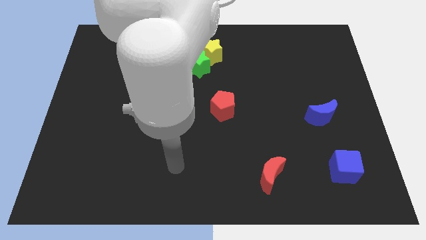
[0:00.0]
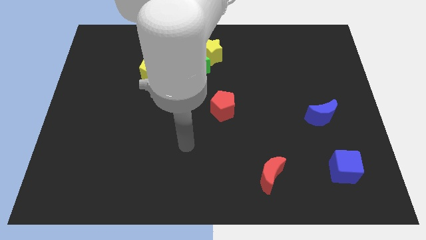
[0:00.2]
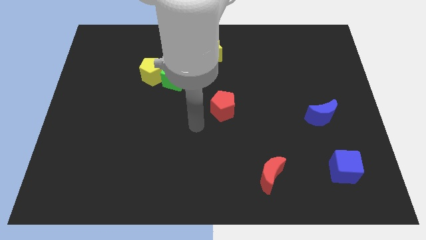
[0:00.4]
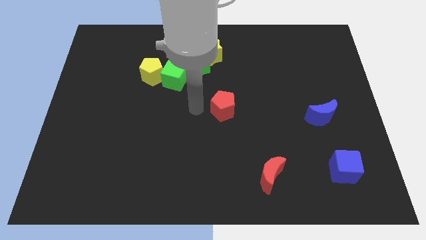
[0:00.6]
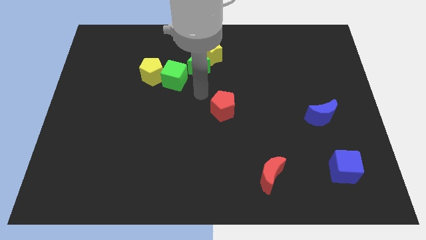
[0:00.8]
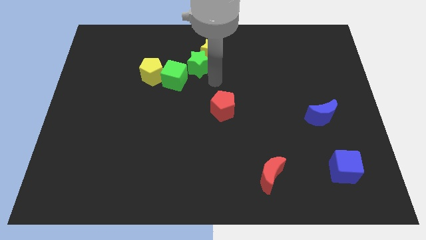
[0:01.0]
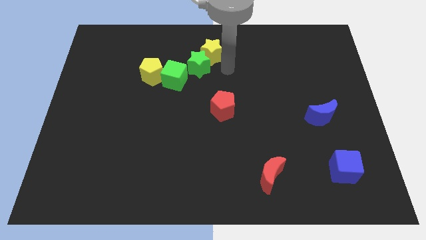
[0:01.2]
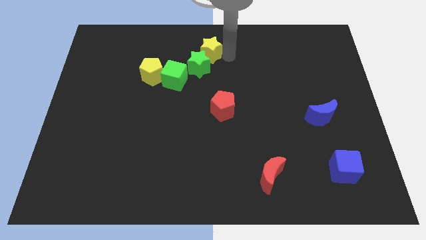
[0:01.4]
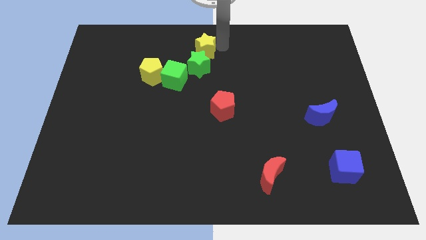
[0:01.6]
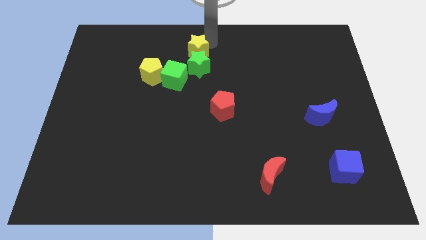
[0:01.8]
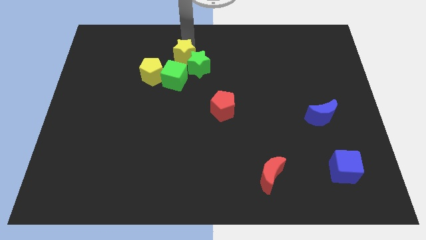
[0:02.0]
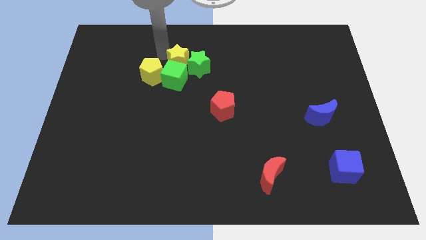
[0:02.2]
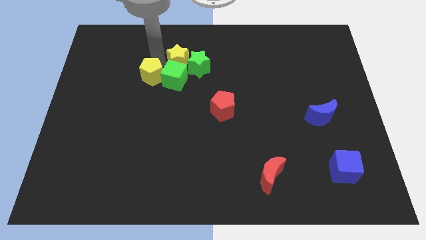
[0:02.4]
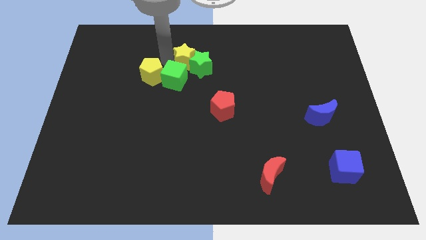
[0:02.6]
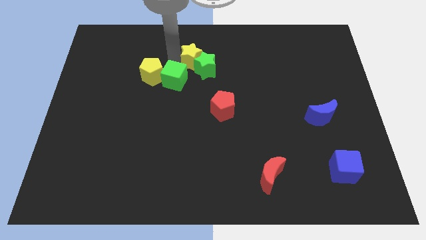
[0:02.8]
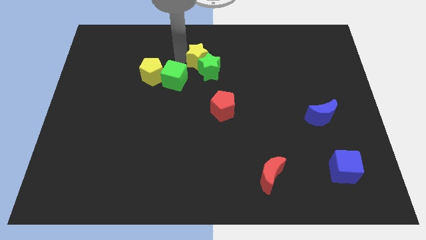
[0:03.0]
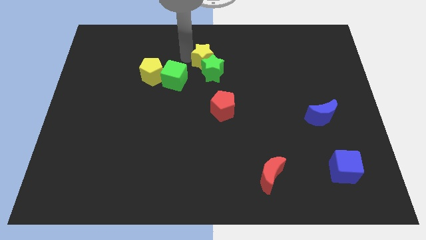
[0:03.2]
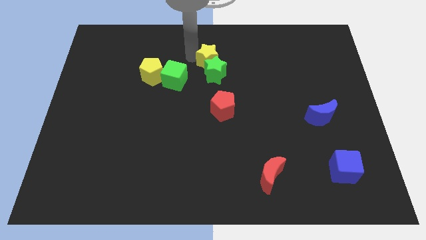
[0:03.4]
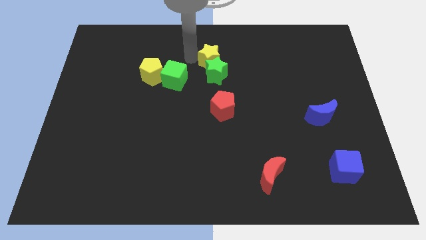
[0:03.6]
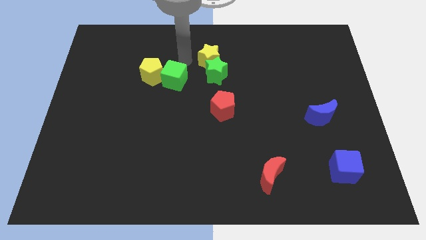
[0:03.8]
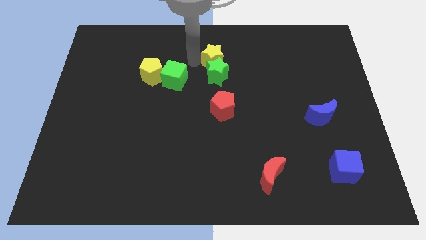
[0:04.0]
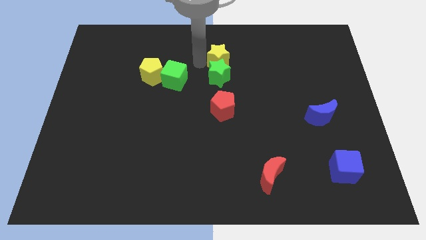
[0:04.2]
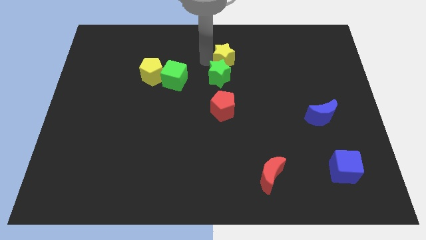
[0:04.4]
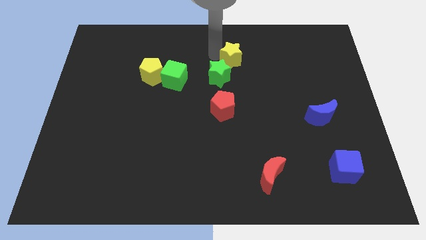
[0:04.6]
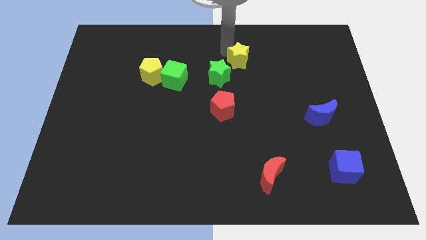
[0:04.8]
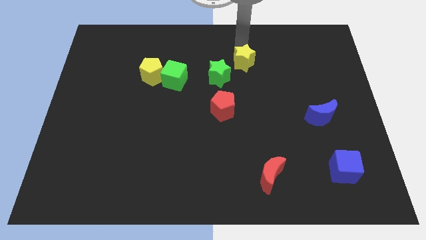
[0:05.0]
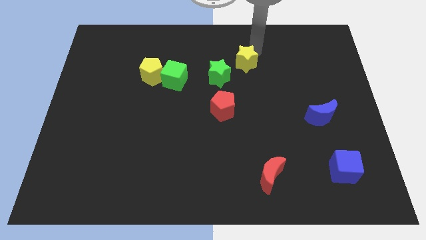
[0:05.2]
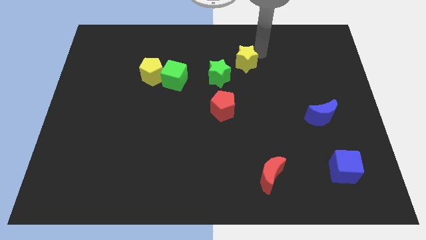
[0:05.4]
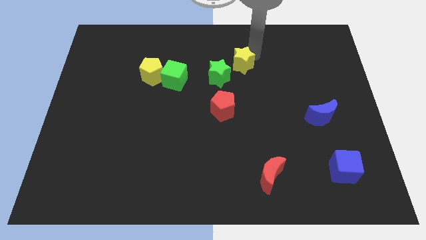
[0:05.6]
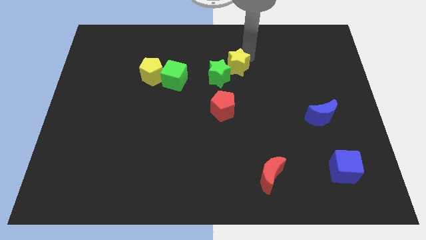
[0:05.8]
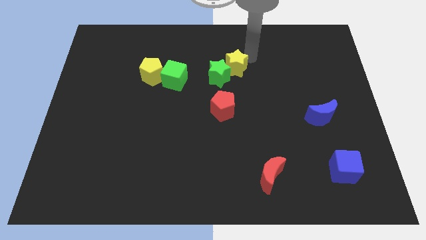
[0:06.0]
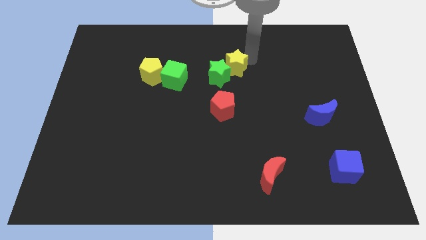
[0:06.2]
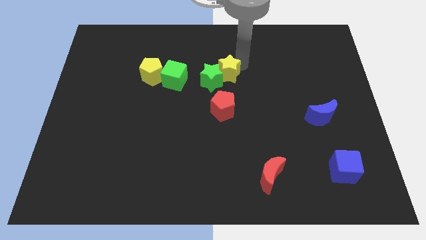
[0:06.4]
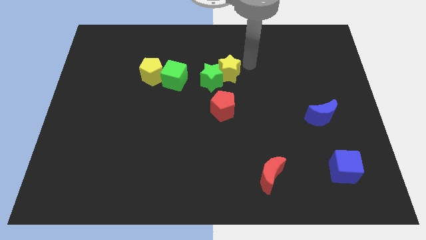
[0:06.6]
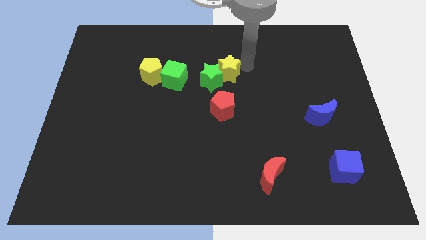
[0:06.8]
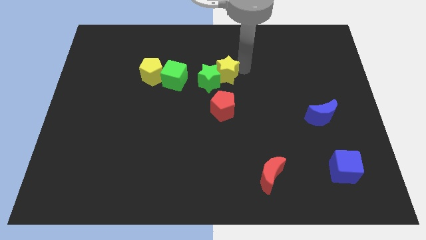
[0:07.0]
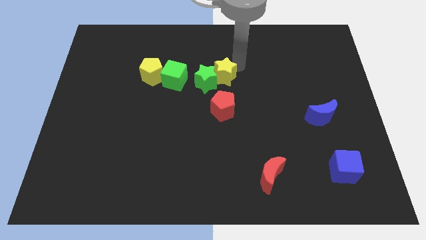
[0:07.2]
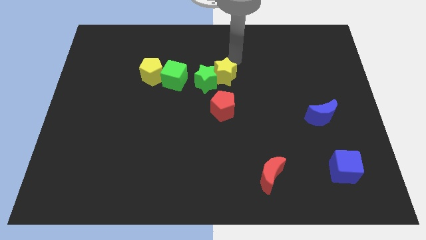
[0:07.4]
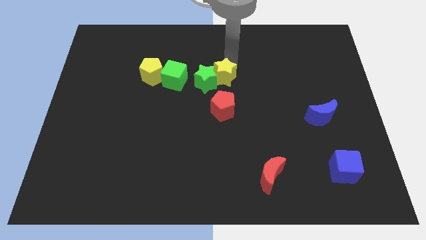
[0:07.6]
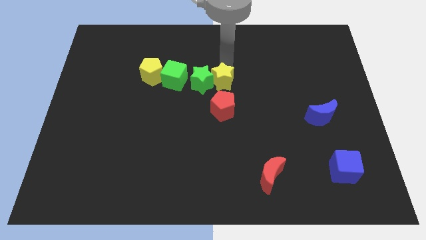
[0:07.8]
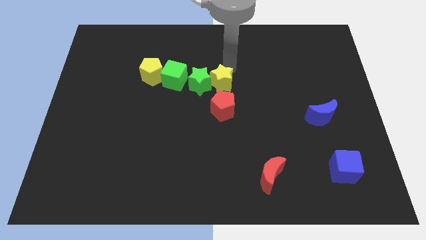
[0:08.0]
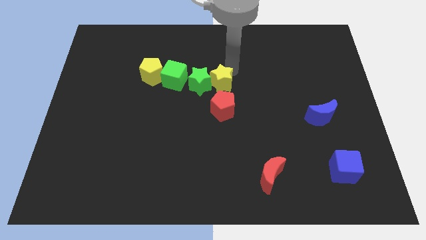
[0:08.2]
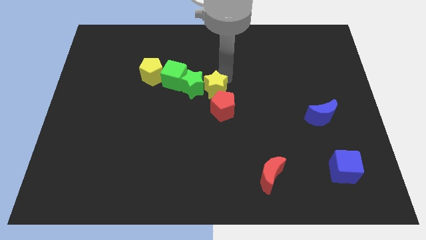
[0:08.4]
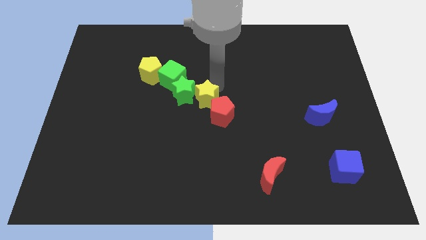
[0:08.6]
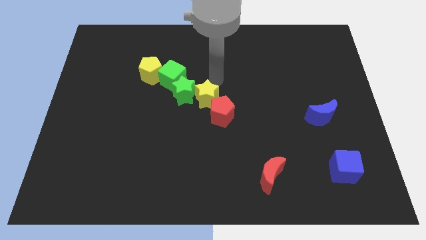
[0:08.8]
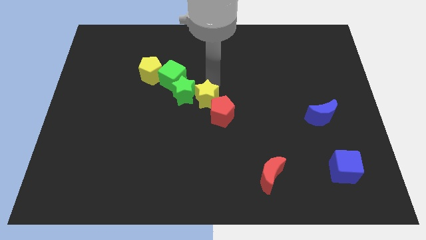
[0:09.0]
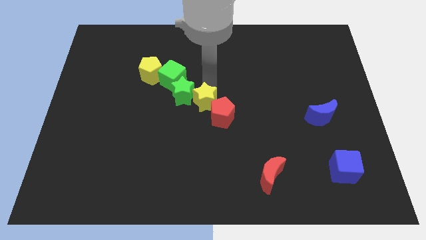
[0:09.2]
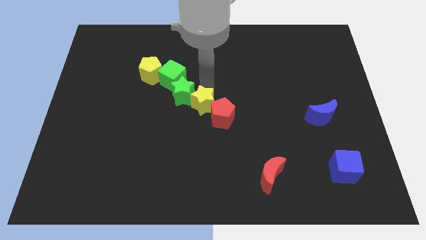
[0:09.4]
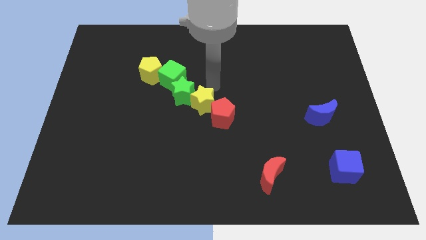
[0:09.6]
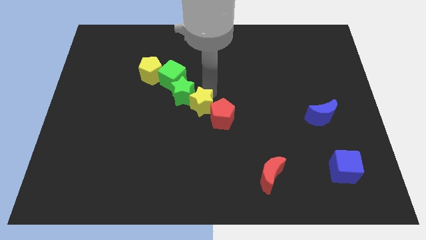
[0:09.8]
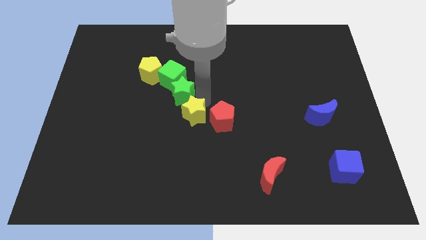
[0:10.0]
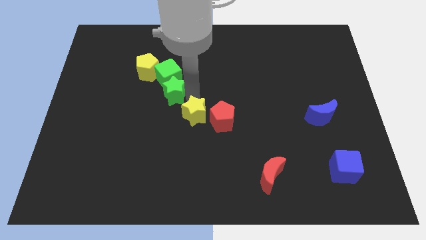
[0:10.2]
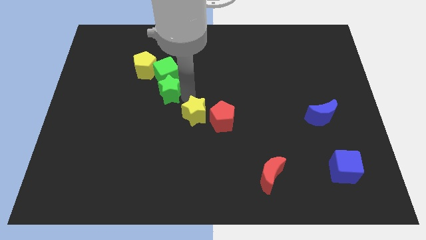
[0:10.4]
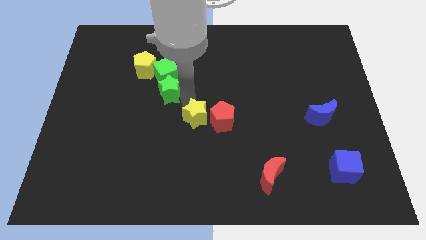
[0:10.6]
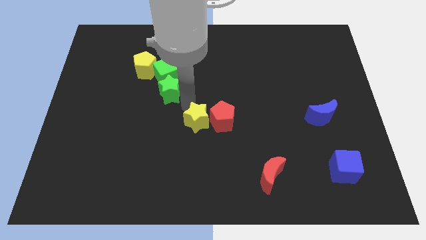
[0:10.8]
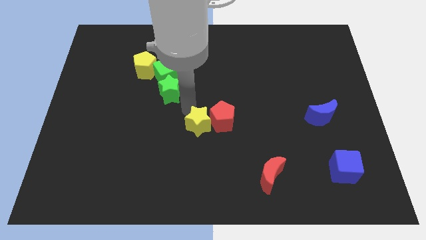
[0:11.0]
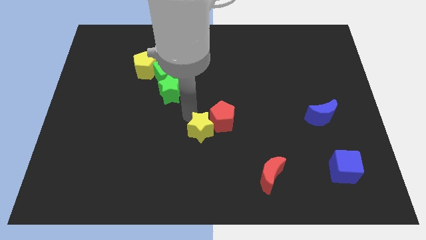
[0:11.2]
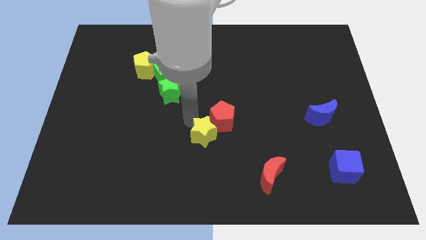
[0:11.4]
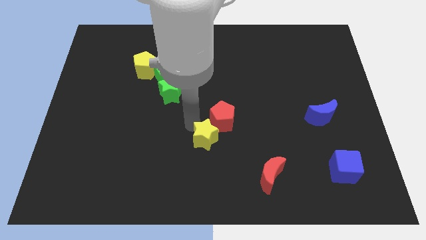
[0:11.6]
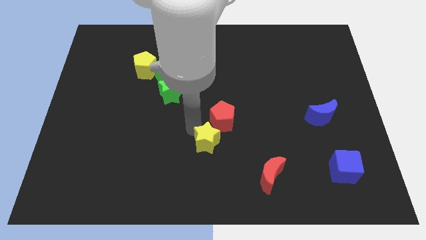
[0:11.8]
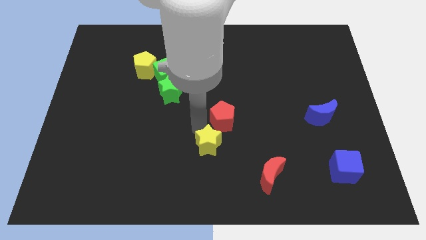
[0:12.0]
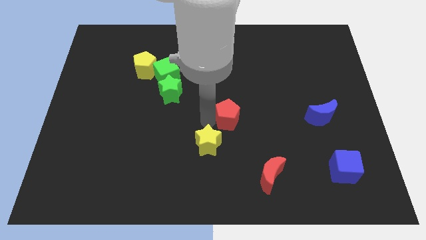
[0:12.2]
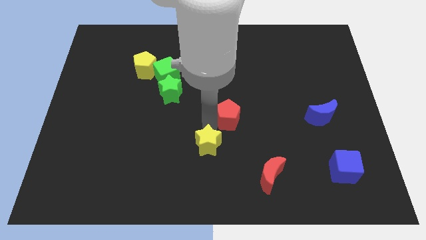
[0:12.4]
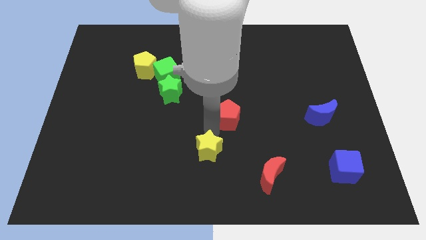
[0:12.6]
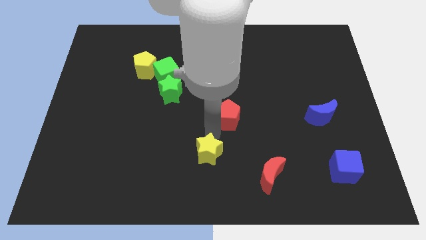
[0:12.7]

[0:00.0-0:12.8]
move the yellow star to the bottom
